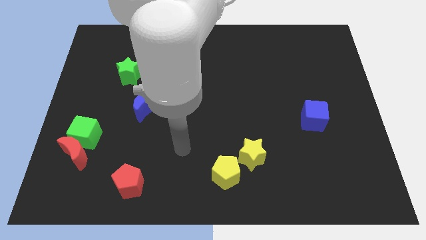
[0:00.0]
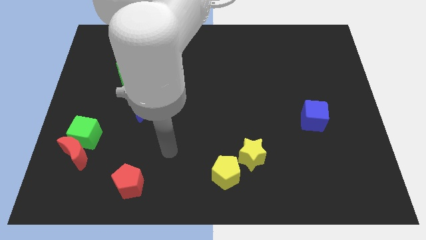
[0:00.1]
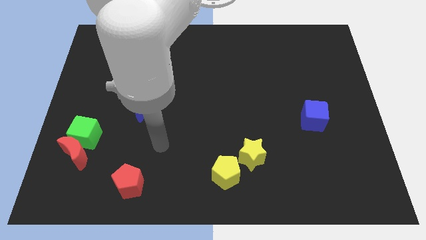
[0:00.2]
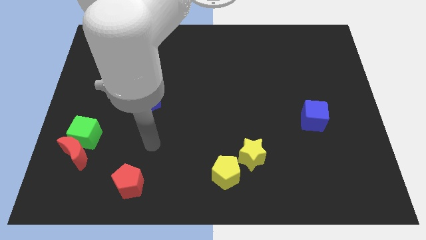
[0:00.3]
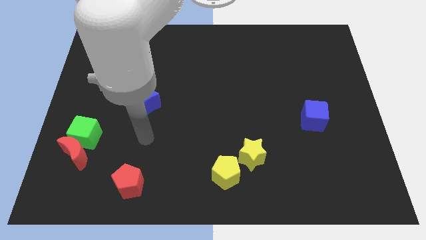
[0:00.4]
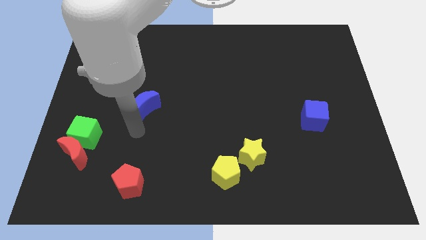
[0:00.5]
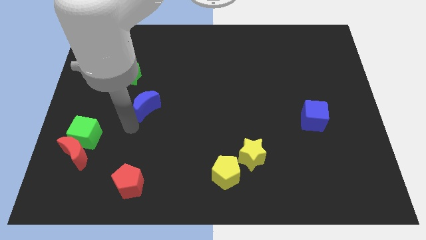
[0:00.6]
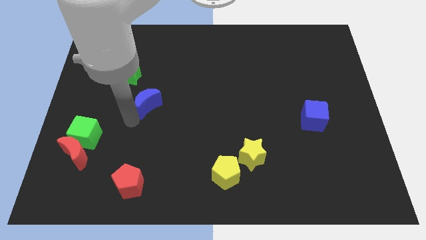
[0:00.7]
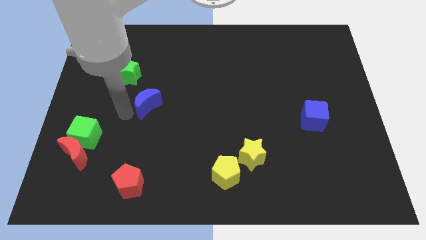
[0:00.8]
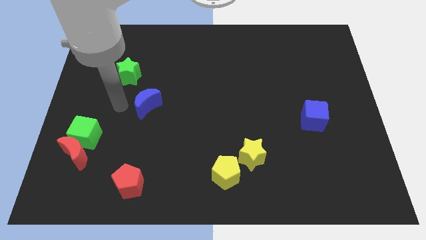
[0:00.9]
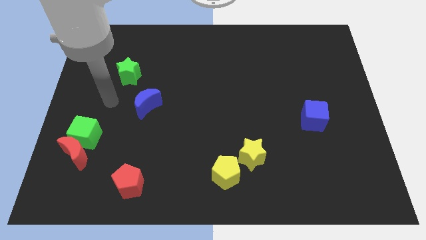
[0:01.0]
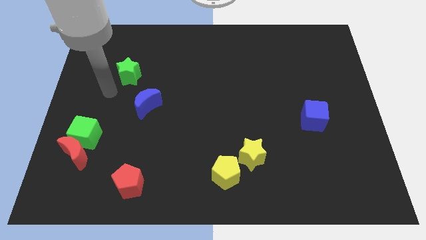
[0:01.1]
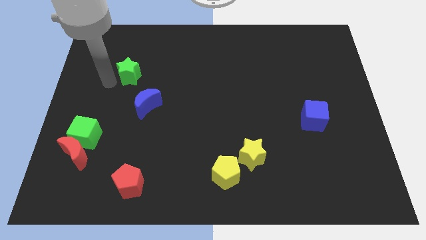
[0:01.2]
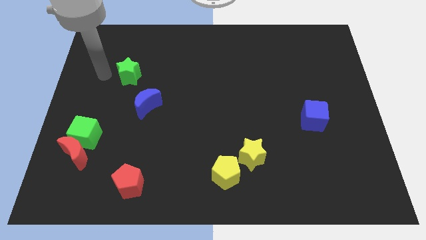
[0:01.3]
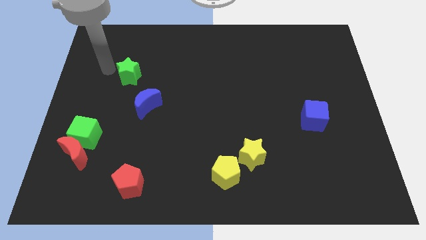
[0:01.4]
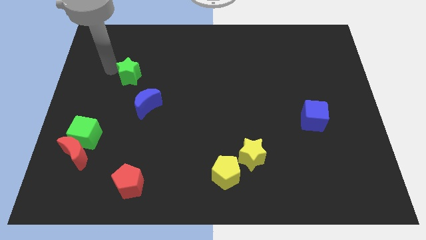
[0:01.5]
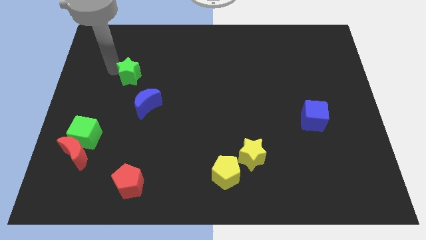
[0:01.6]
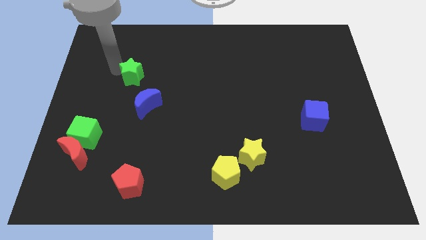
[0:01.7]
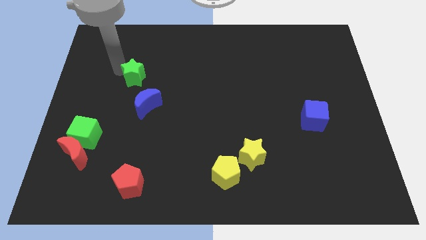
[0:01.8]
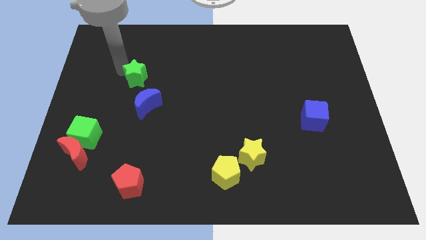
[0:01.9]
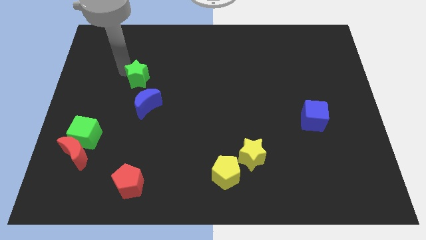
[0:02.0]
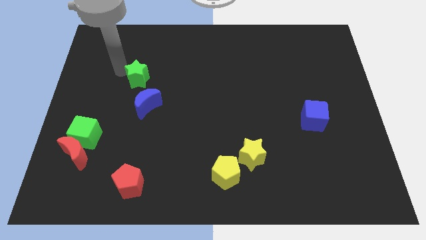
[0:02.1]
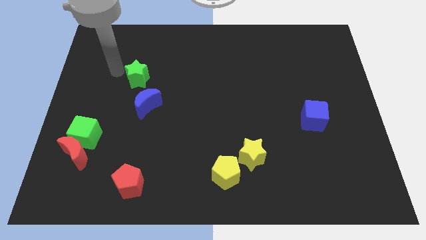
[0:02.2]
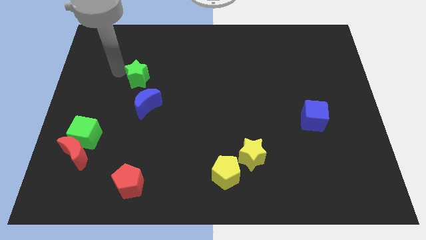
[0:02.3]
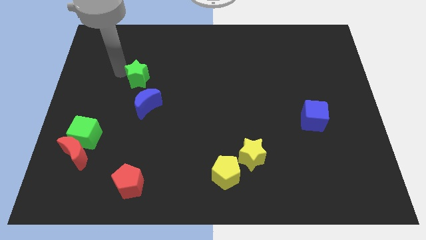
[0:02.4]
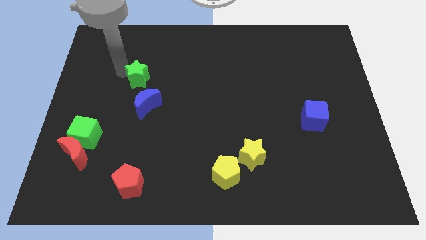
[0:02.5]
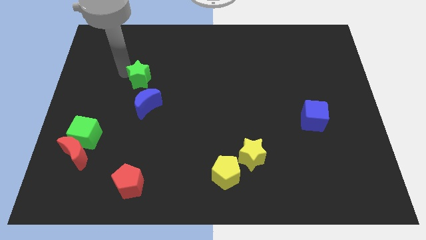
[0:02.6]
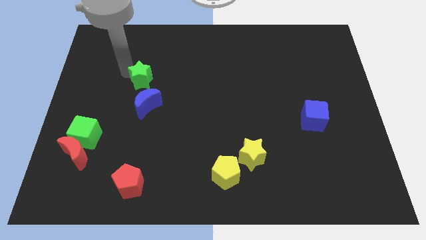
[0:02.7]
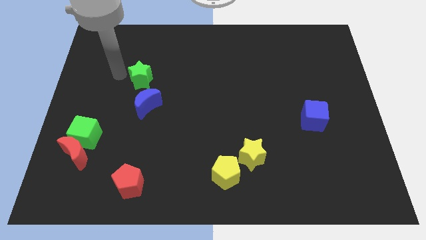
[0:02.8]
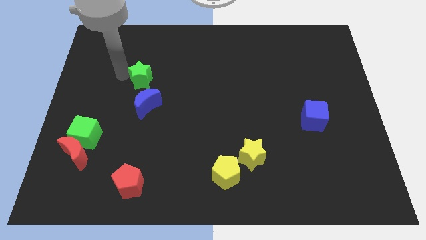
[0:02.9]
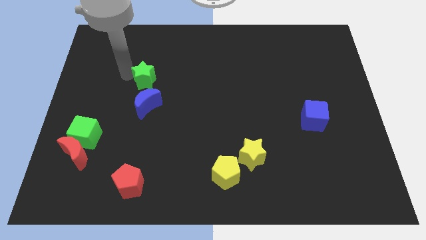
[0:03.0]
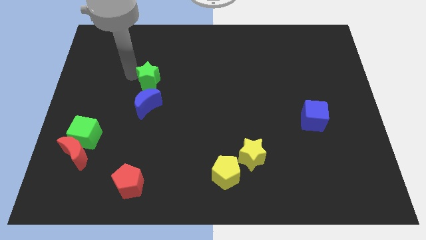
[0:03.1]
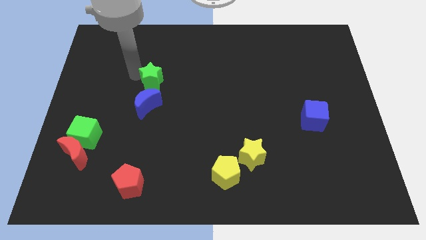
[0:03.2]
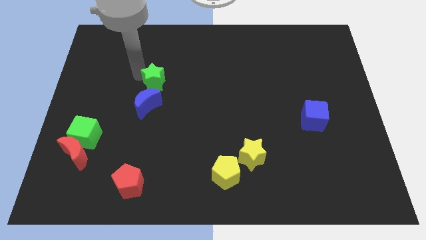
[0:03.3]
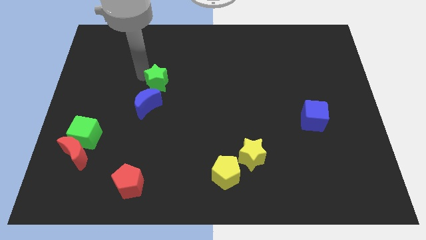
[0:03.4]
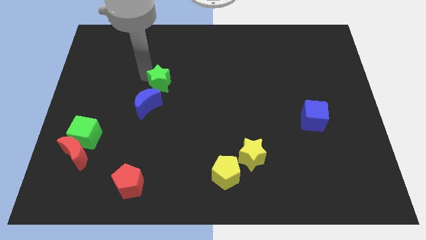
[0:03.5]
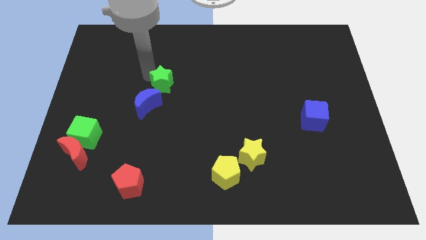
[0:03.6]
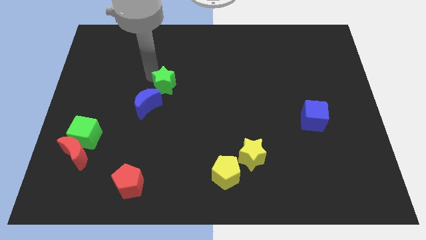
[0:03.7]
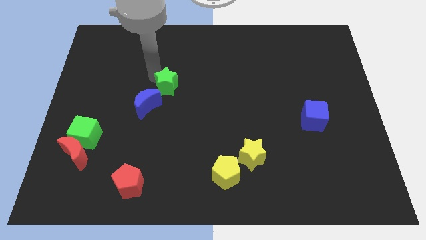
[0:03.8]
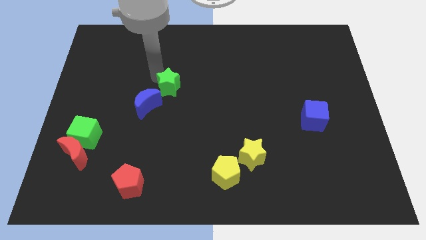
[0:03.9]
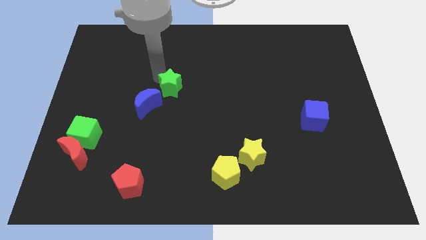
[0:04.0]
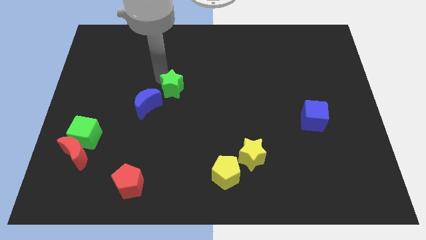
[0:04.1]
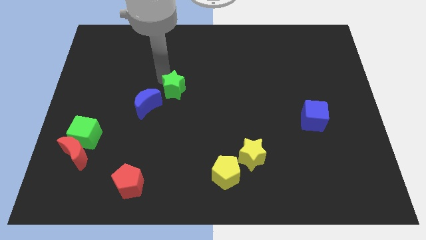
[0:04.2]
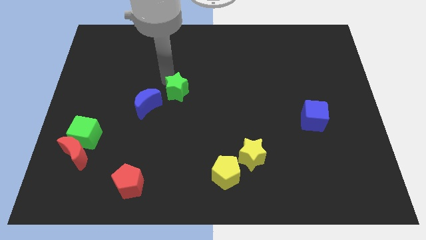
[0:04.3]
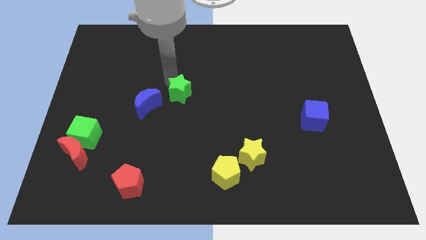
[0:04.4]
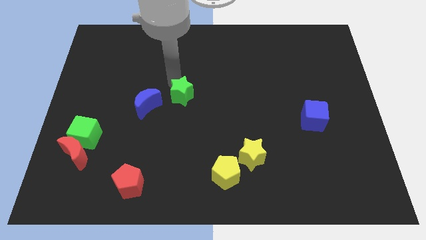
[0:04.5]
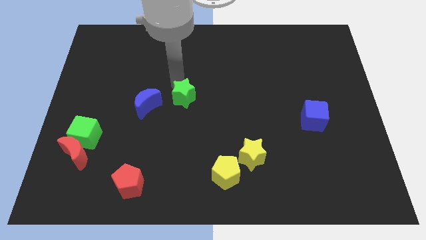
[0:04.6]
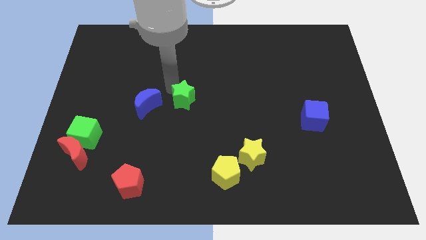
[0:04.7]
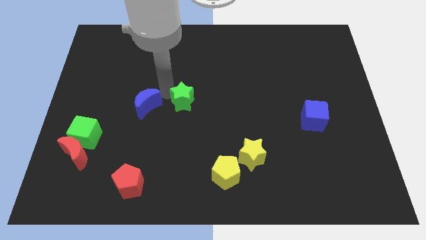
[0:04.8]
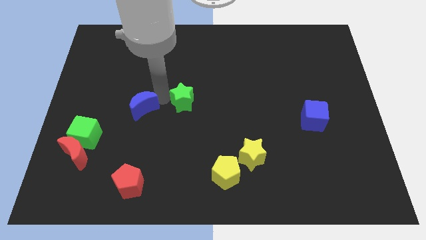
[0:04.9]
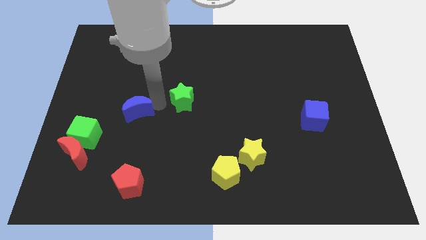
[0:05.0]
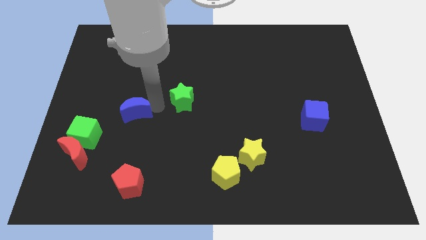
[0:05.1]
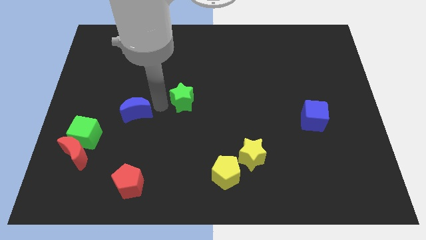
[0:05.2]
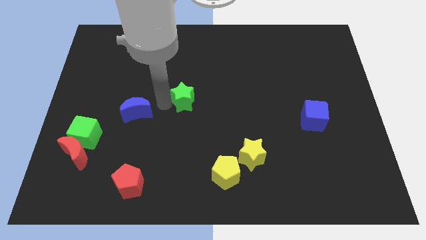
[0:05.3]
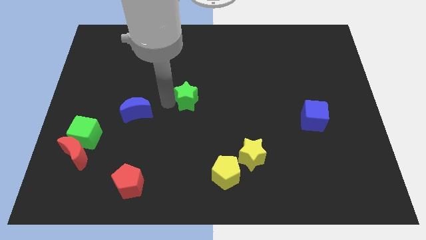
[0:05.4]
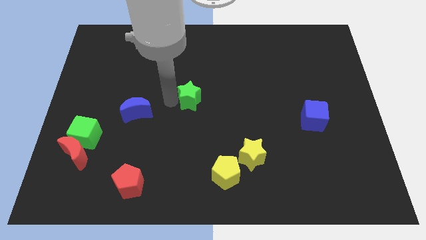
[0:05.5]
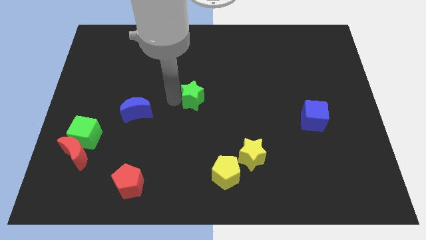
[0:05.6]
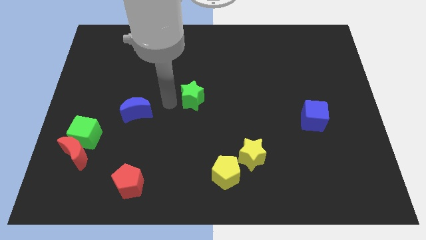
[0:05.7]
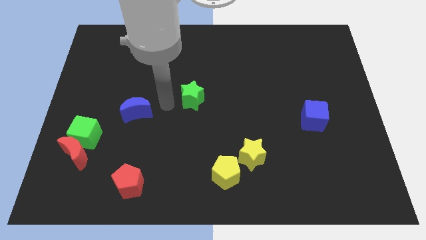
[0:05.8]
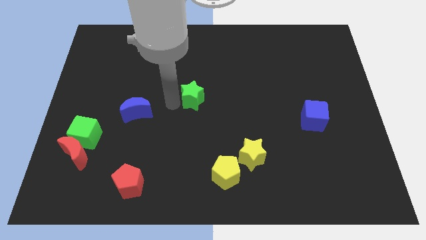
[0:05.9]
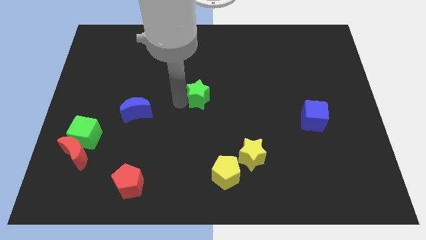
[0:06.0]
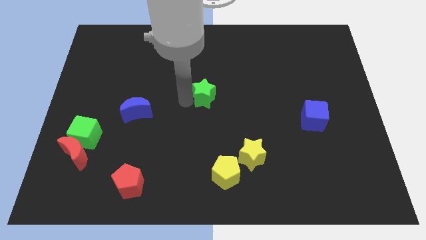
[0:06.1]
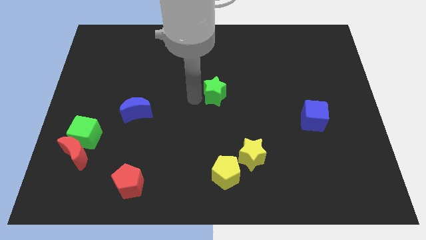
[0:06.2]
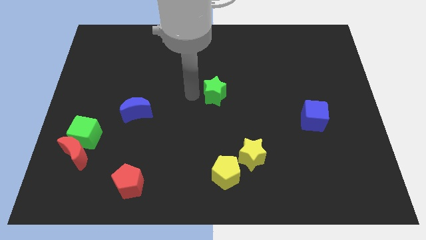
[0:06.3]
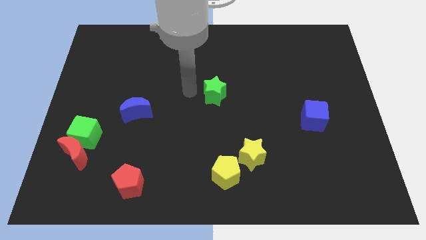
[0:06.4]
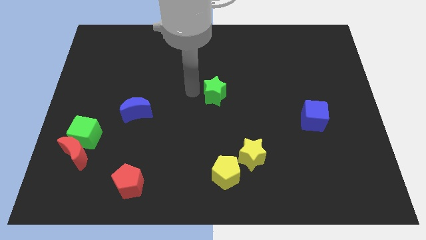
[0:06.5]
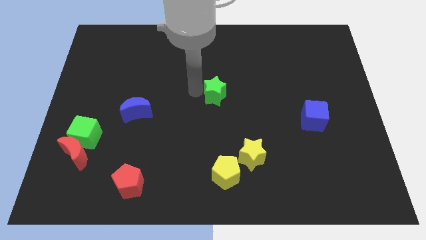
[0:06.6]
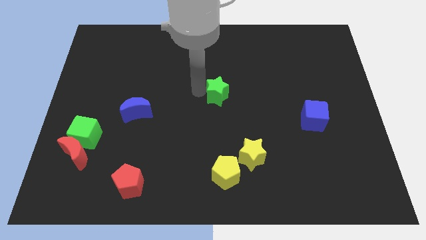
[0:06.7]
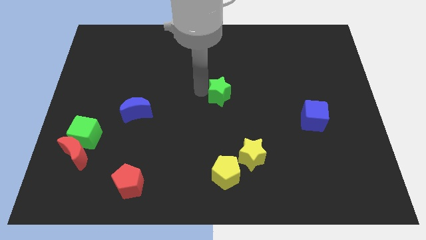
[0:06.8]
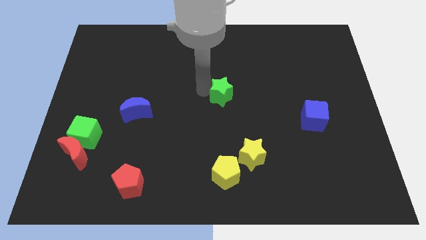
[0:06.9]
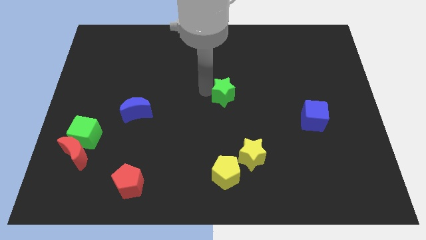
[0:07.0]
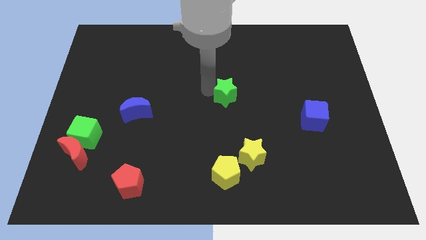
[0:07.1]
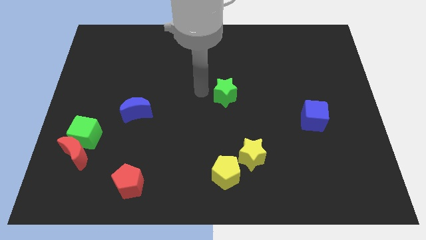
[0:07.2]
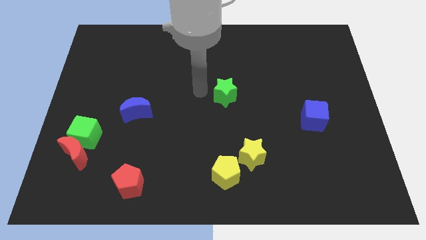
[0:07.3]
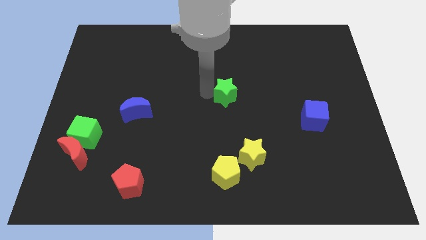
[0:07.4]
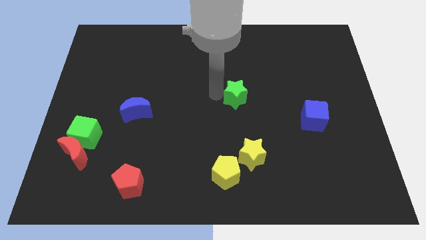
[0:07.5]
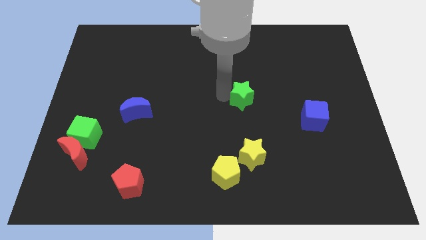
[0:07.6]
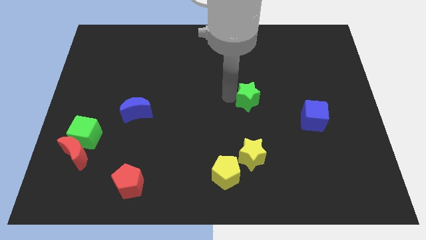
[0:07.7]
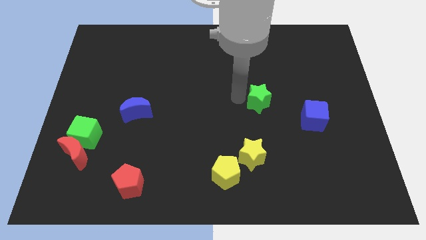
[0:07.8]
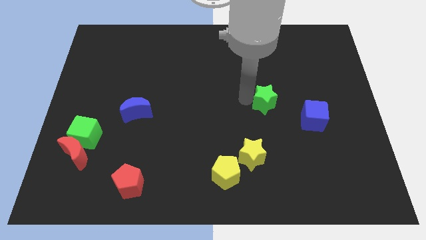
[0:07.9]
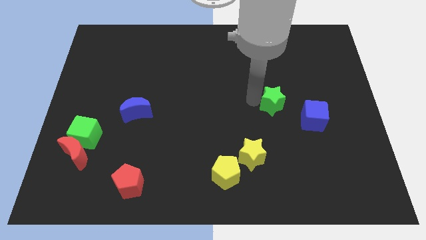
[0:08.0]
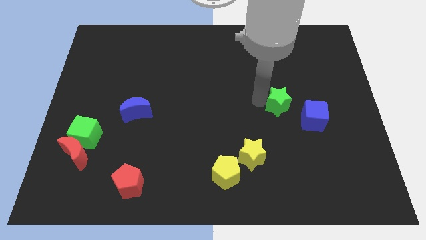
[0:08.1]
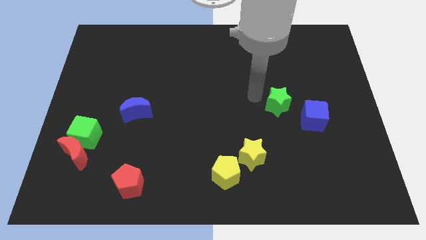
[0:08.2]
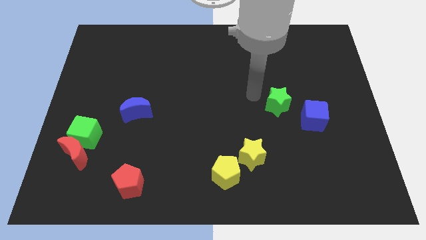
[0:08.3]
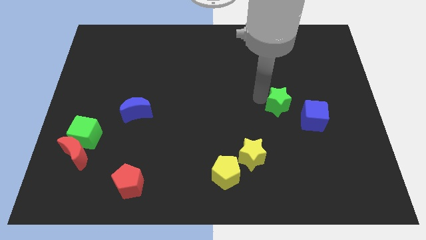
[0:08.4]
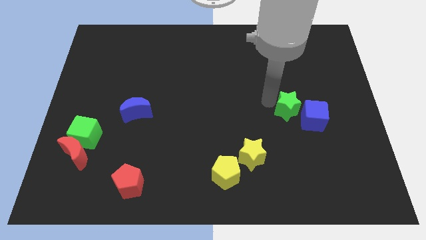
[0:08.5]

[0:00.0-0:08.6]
move the green star to the blue cube
